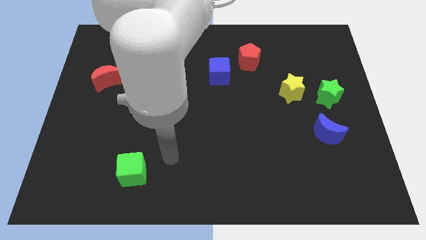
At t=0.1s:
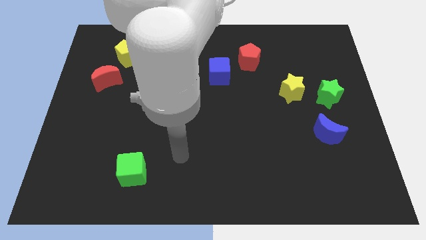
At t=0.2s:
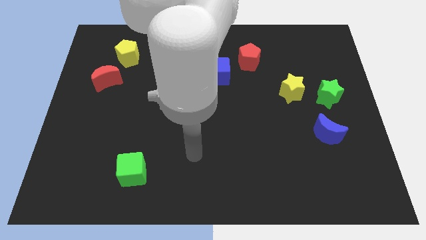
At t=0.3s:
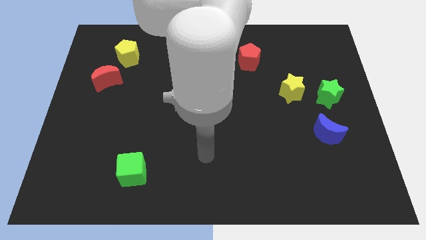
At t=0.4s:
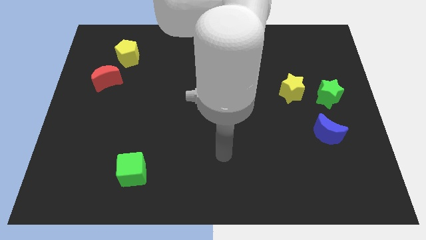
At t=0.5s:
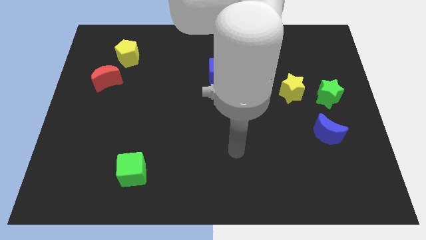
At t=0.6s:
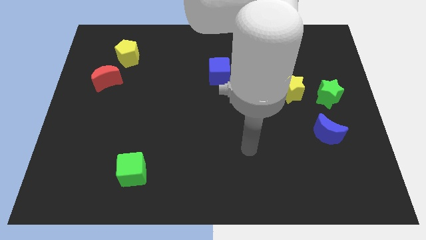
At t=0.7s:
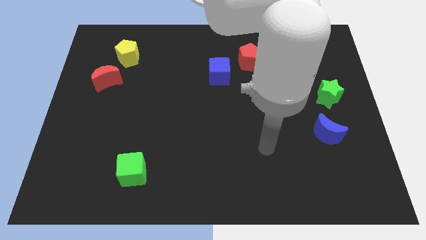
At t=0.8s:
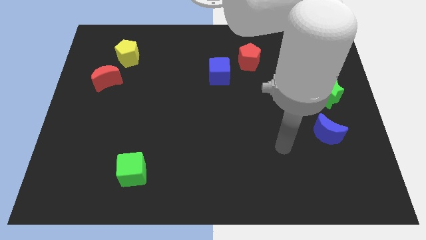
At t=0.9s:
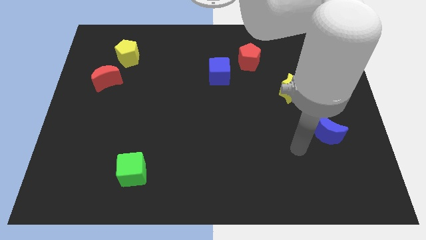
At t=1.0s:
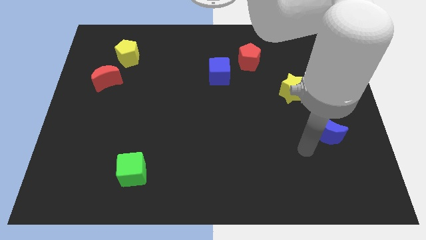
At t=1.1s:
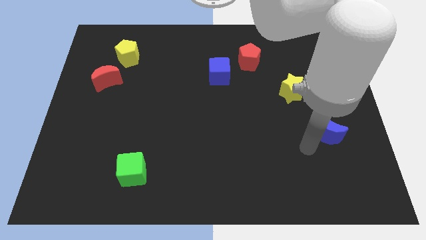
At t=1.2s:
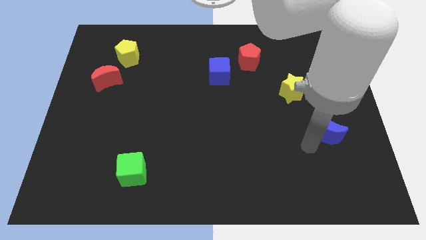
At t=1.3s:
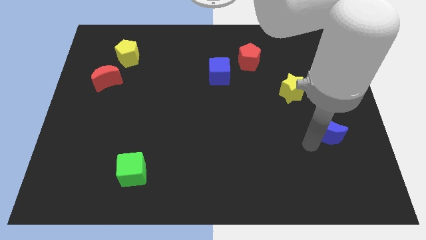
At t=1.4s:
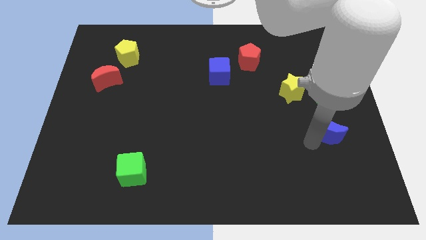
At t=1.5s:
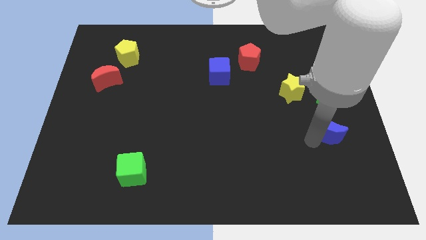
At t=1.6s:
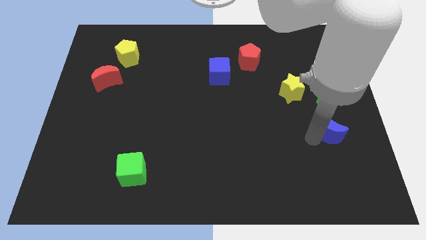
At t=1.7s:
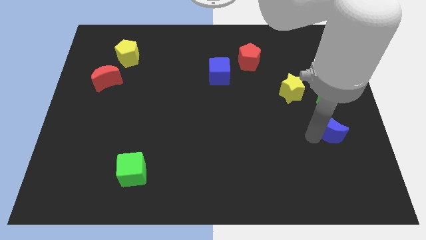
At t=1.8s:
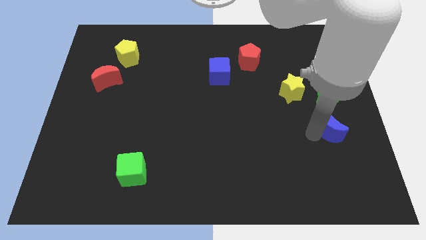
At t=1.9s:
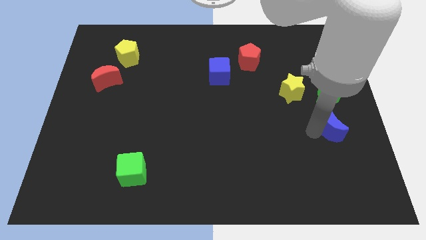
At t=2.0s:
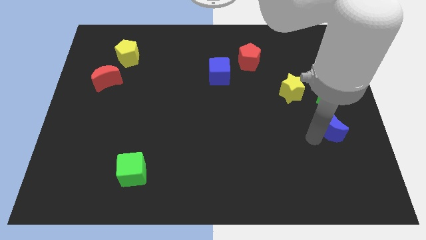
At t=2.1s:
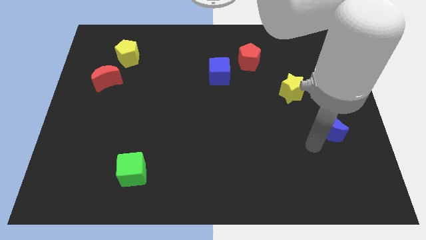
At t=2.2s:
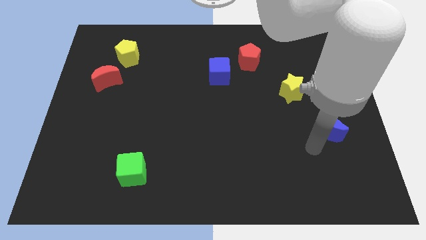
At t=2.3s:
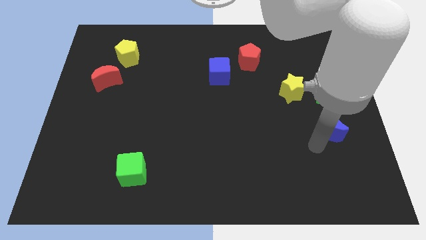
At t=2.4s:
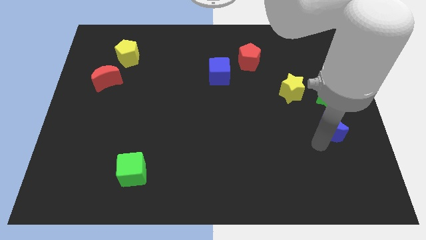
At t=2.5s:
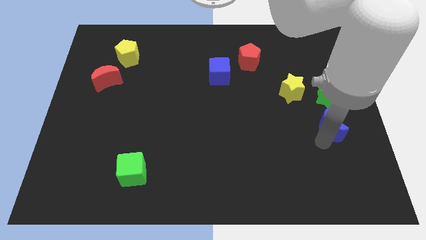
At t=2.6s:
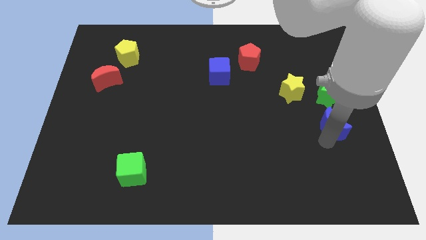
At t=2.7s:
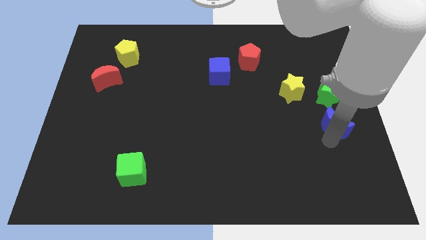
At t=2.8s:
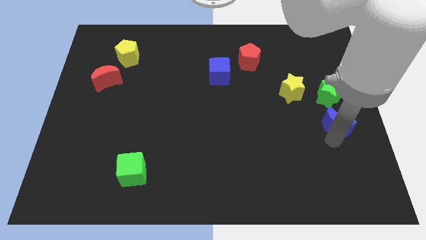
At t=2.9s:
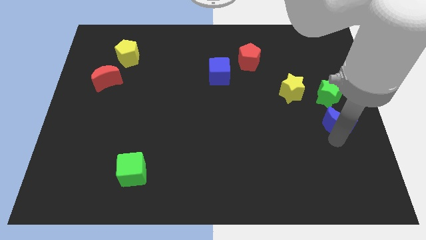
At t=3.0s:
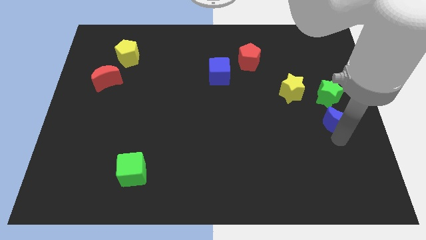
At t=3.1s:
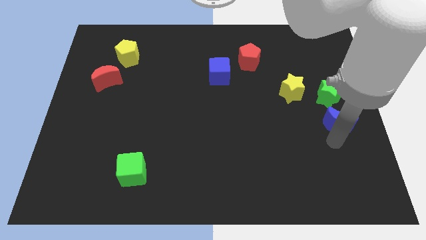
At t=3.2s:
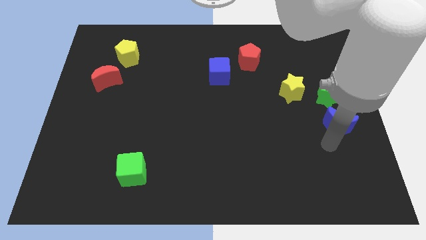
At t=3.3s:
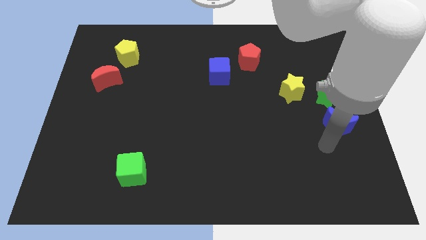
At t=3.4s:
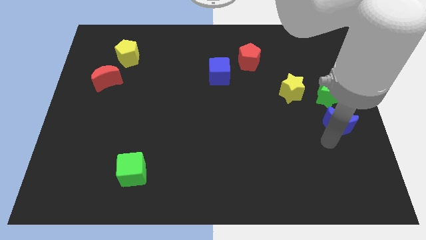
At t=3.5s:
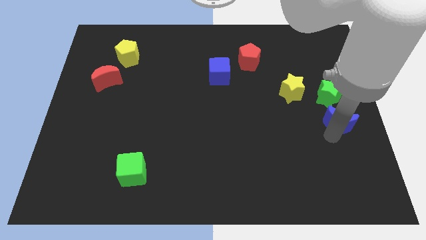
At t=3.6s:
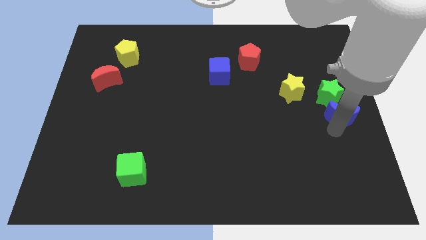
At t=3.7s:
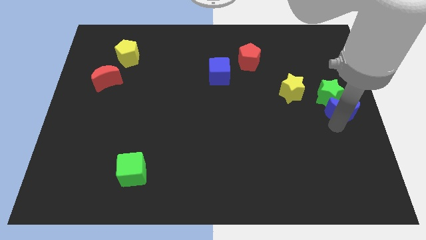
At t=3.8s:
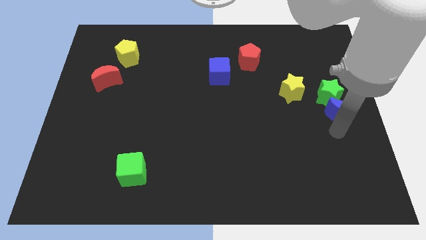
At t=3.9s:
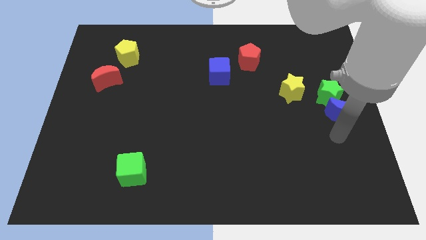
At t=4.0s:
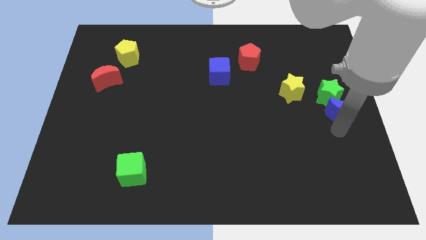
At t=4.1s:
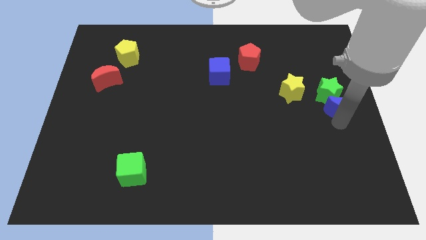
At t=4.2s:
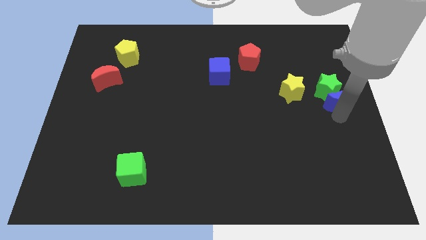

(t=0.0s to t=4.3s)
move the blue moon upwards slightly

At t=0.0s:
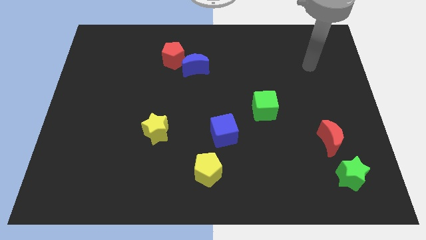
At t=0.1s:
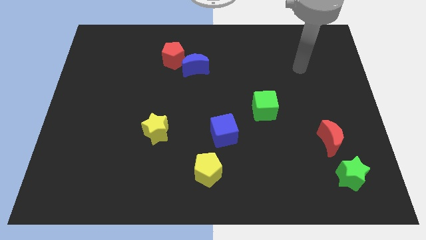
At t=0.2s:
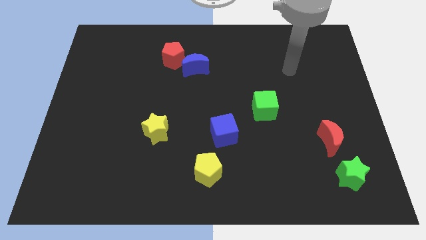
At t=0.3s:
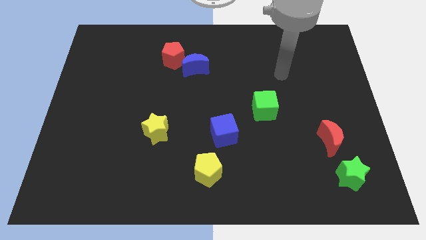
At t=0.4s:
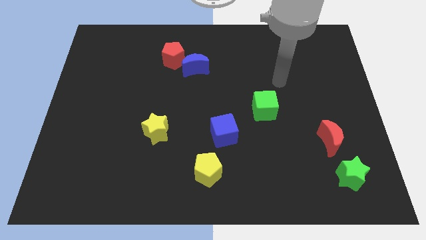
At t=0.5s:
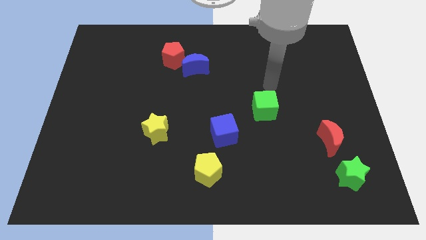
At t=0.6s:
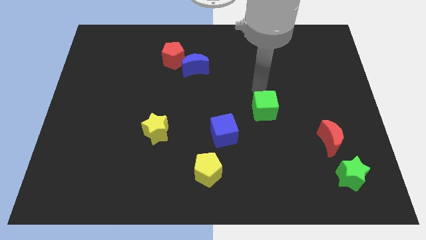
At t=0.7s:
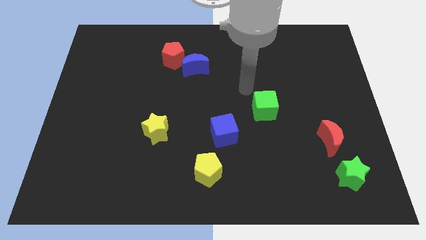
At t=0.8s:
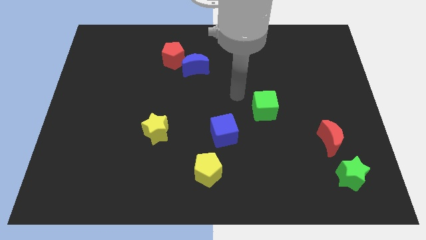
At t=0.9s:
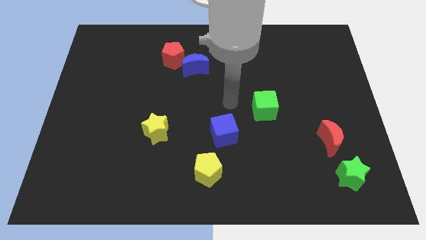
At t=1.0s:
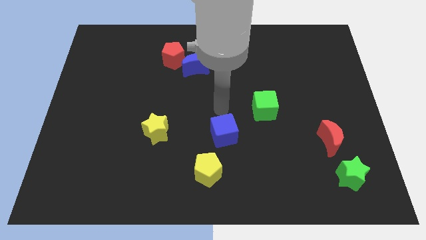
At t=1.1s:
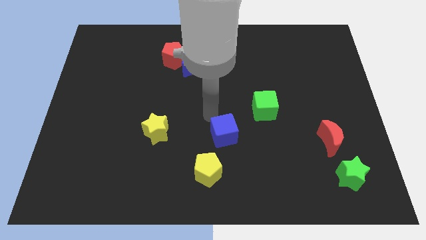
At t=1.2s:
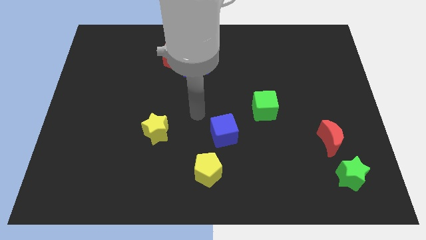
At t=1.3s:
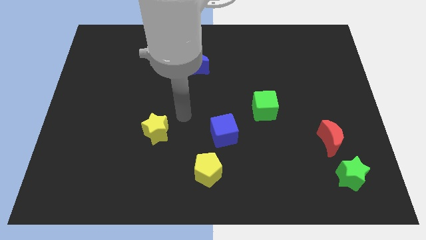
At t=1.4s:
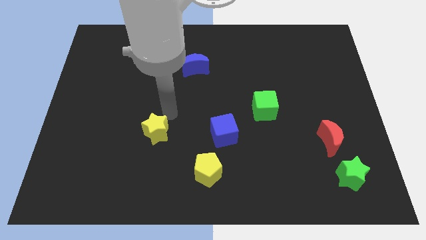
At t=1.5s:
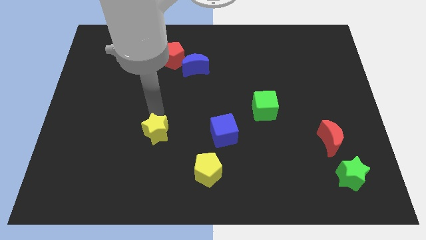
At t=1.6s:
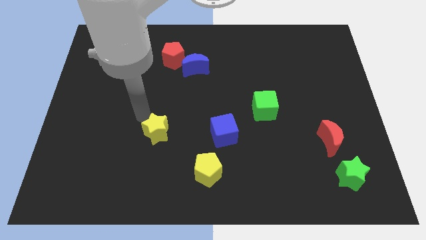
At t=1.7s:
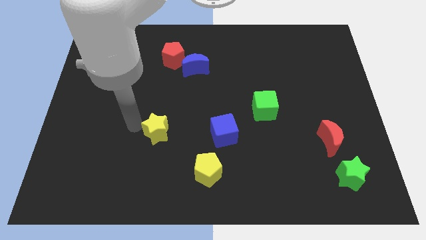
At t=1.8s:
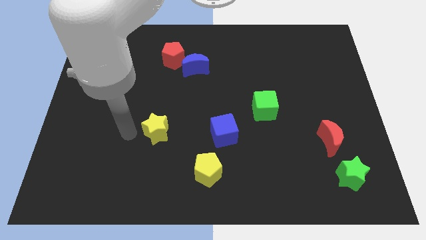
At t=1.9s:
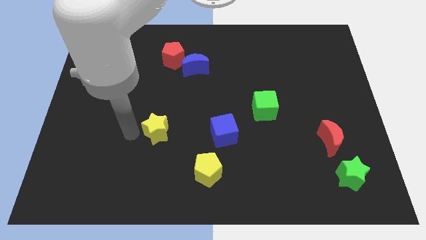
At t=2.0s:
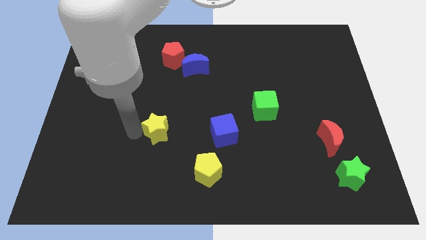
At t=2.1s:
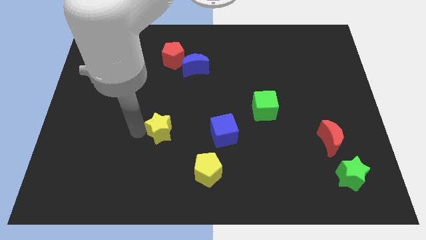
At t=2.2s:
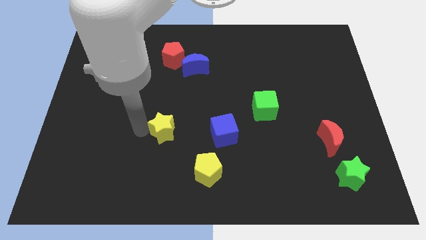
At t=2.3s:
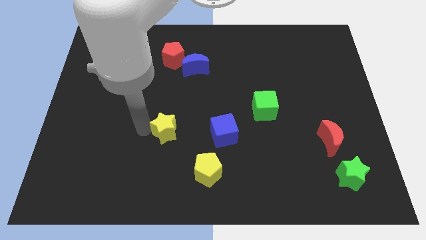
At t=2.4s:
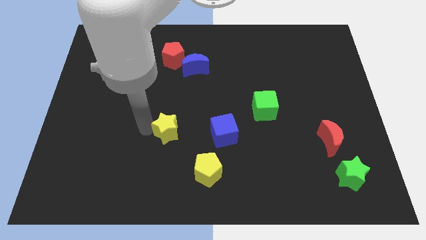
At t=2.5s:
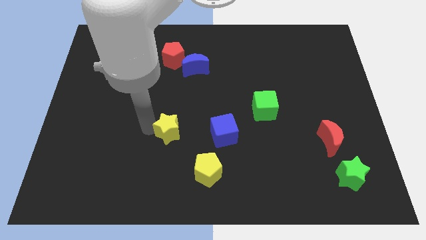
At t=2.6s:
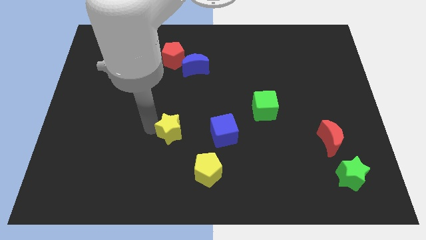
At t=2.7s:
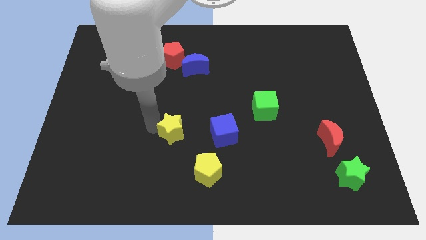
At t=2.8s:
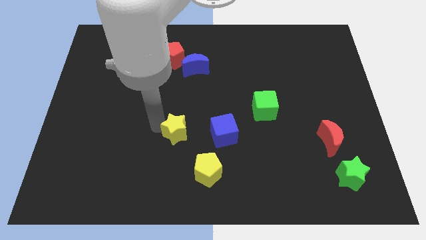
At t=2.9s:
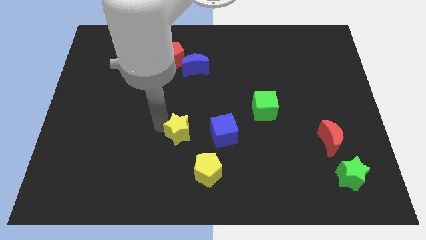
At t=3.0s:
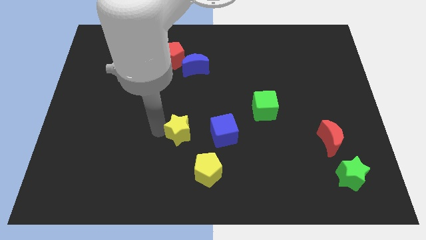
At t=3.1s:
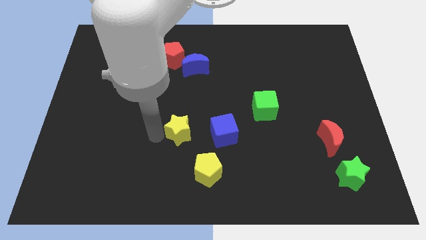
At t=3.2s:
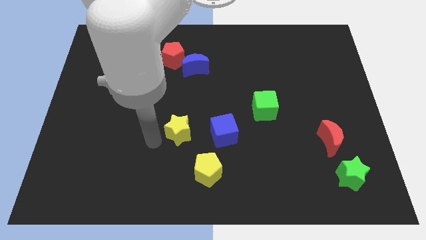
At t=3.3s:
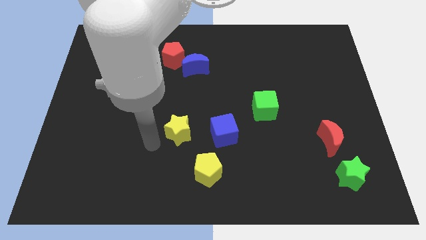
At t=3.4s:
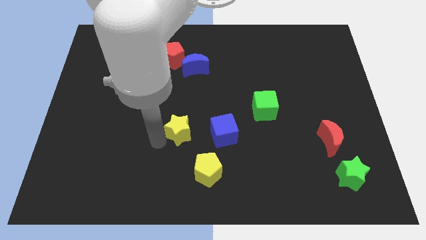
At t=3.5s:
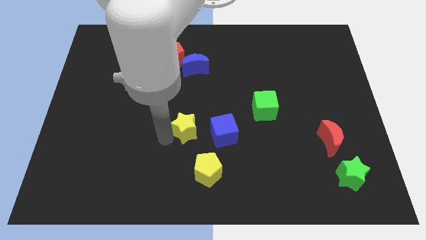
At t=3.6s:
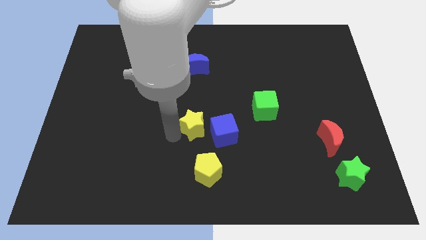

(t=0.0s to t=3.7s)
push the yellow star to the right a little
